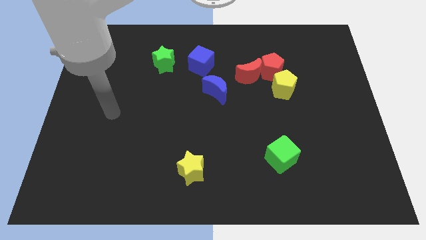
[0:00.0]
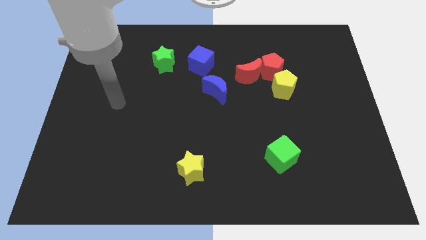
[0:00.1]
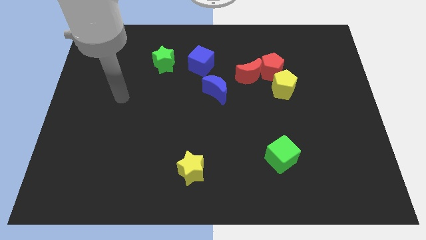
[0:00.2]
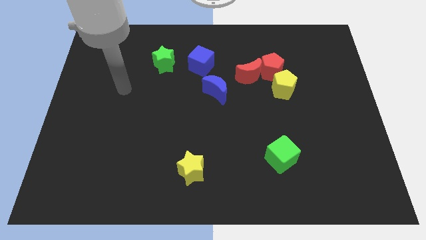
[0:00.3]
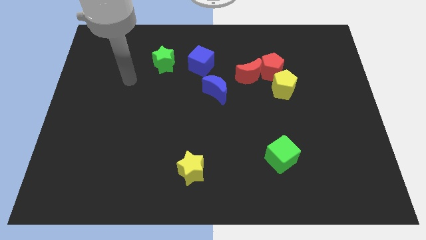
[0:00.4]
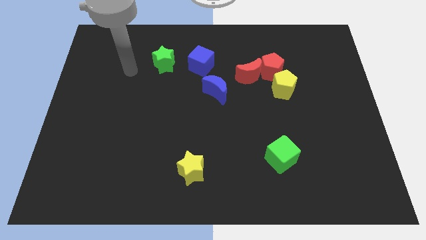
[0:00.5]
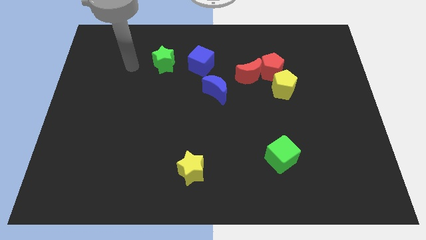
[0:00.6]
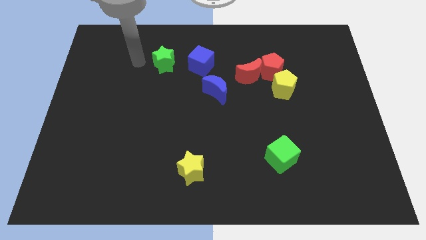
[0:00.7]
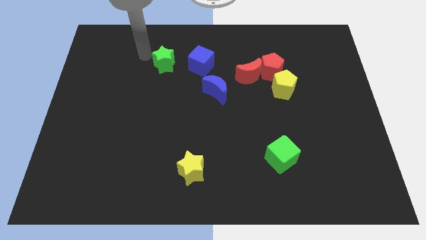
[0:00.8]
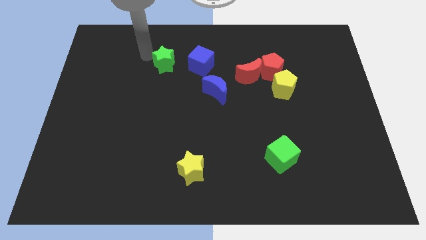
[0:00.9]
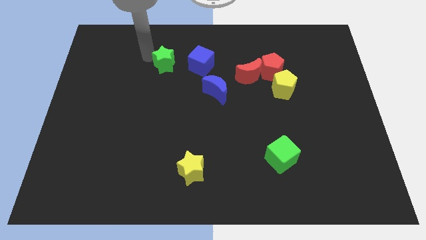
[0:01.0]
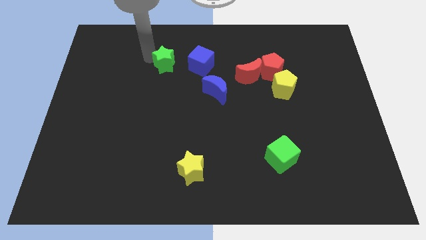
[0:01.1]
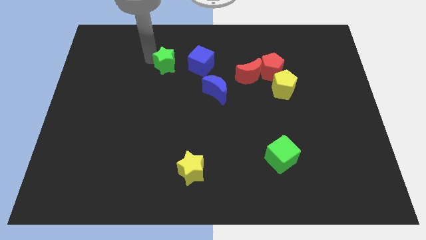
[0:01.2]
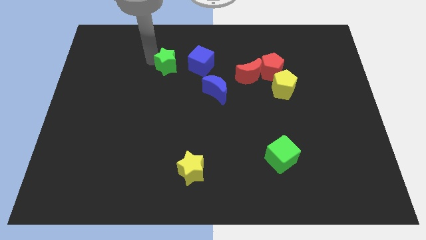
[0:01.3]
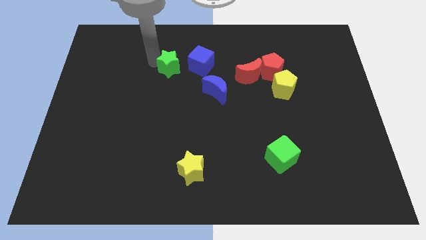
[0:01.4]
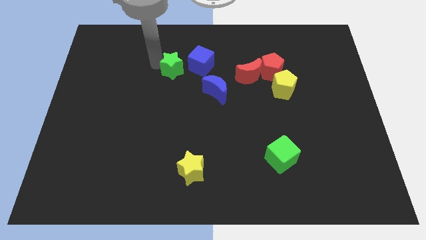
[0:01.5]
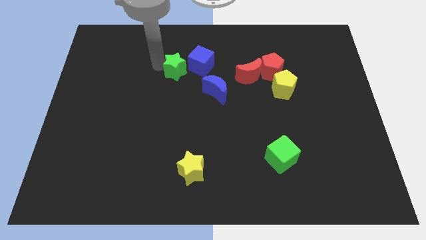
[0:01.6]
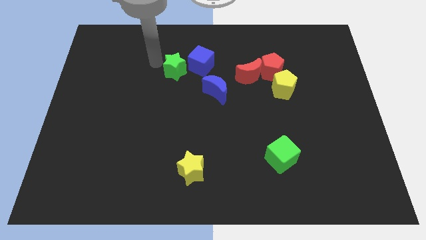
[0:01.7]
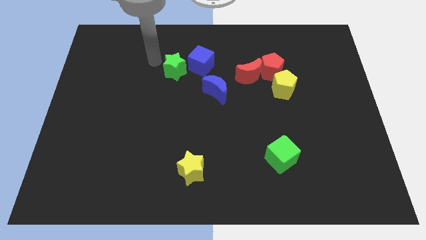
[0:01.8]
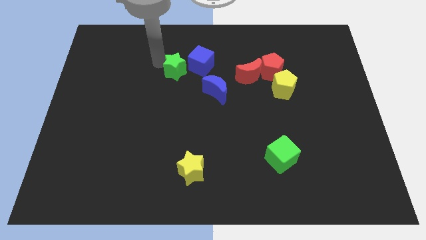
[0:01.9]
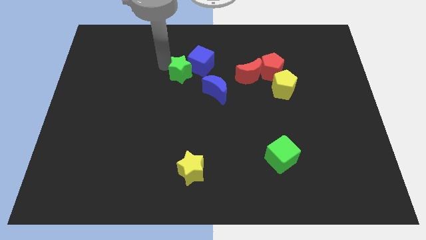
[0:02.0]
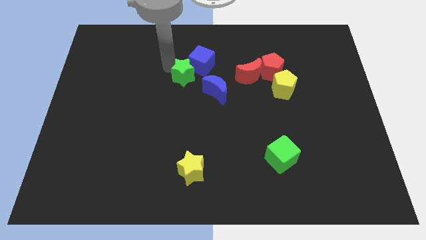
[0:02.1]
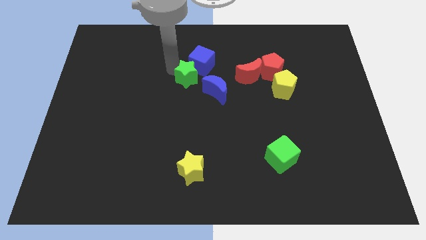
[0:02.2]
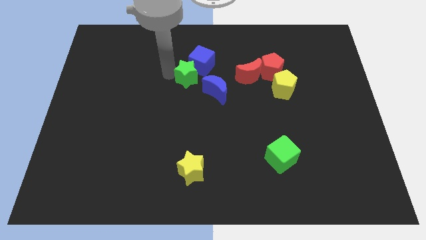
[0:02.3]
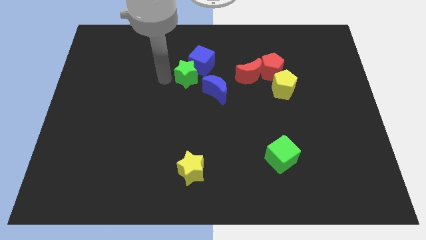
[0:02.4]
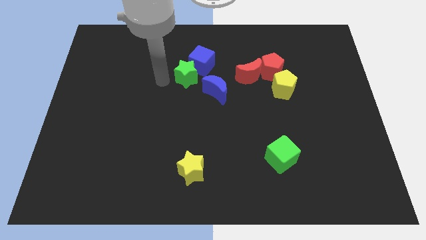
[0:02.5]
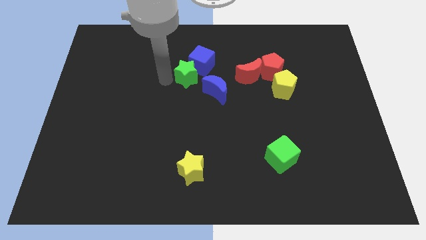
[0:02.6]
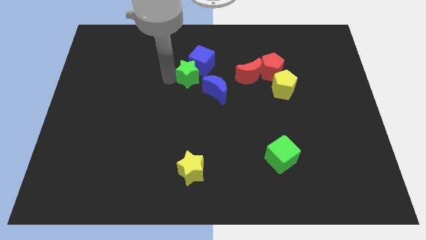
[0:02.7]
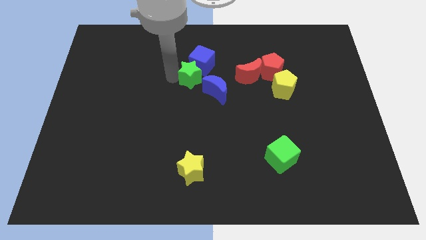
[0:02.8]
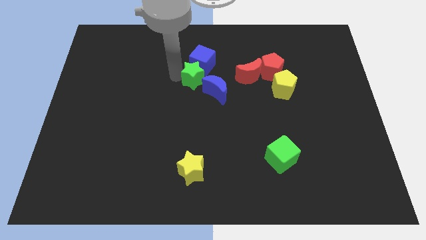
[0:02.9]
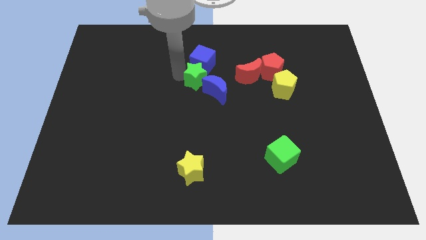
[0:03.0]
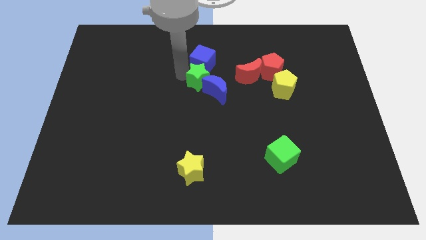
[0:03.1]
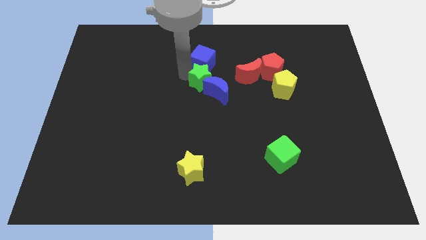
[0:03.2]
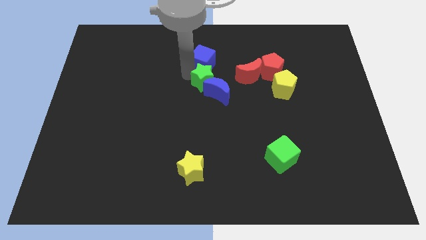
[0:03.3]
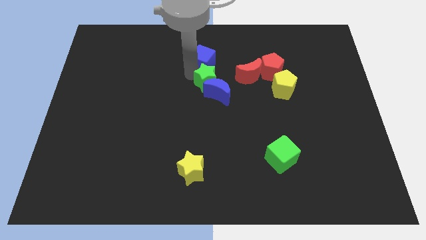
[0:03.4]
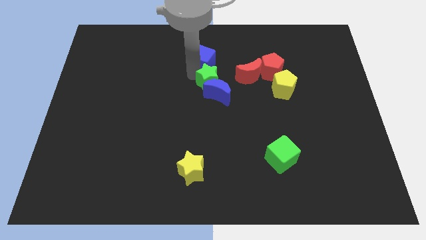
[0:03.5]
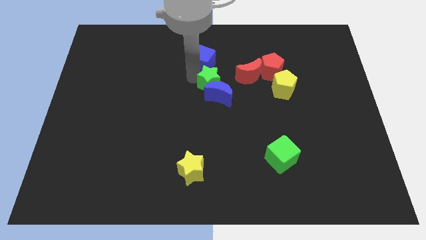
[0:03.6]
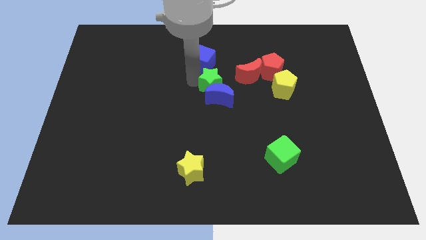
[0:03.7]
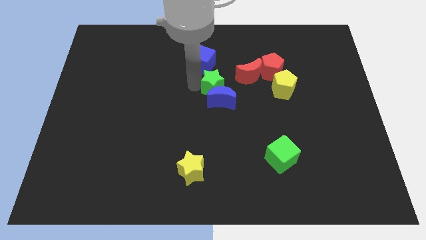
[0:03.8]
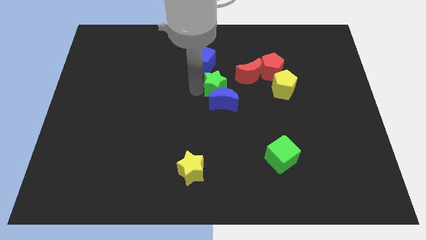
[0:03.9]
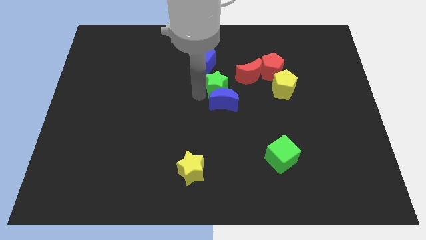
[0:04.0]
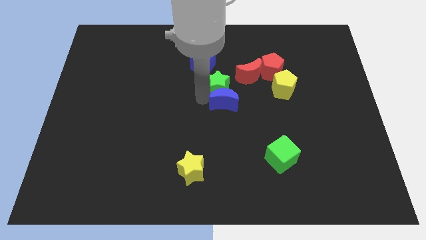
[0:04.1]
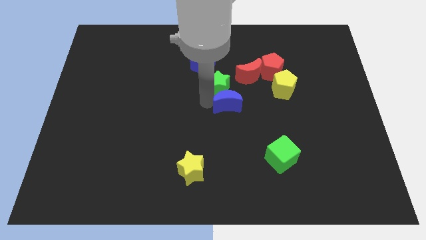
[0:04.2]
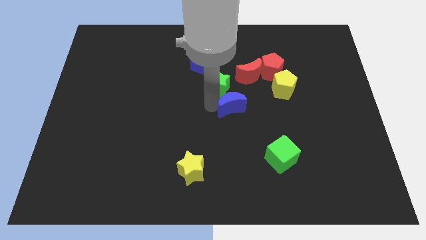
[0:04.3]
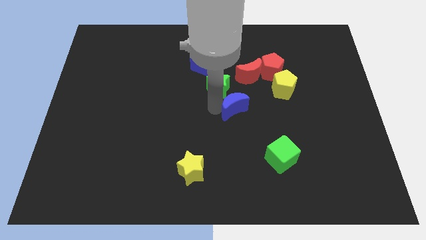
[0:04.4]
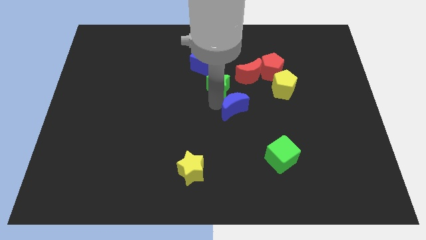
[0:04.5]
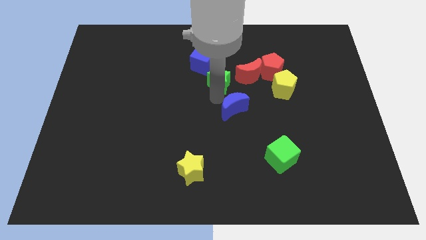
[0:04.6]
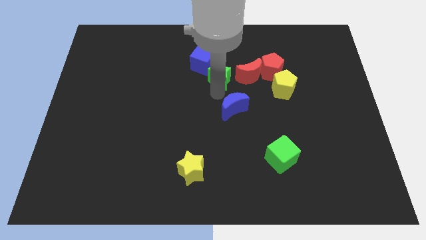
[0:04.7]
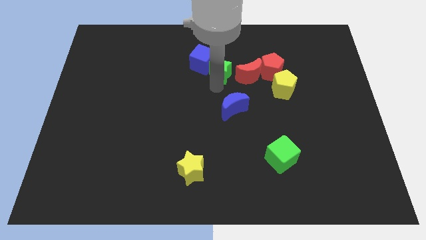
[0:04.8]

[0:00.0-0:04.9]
move the green star right of the blue cube

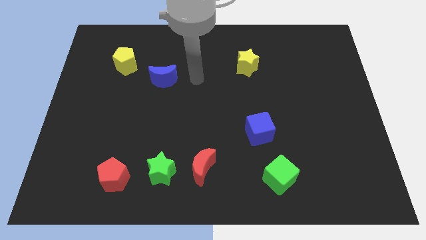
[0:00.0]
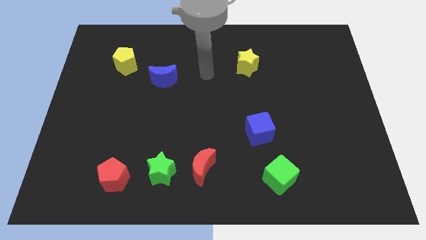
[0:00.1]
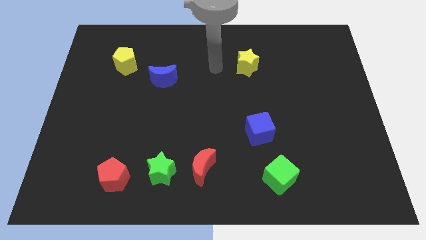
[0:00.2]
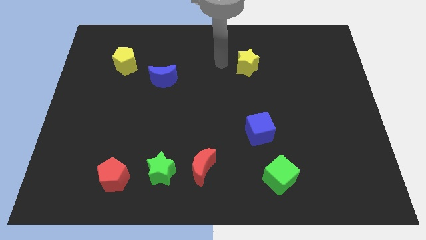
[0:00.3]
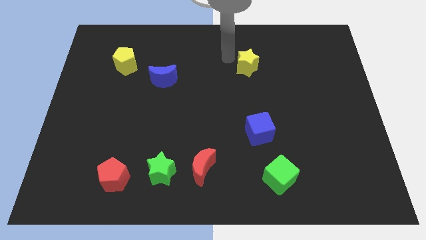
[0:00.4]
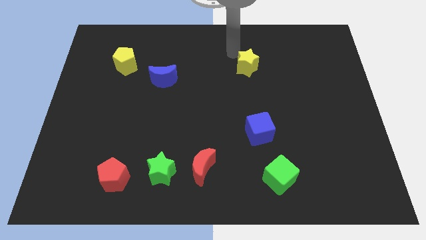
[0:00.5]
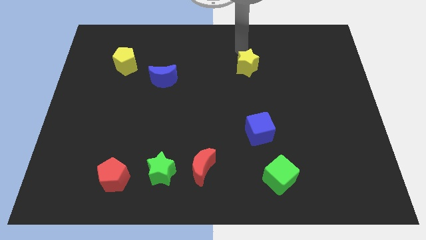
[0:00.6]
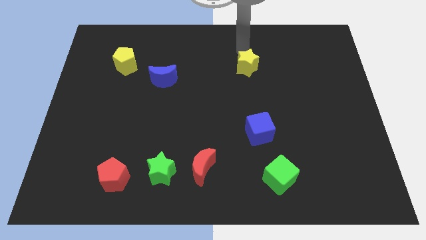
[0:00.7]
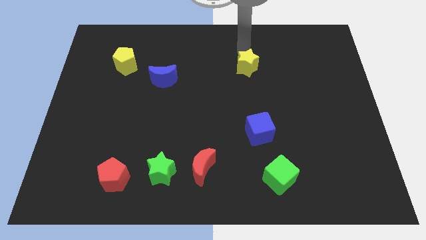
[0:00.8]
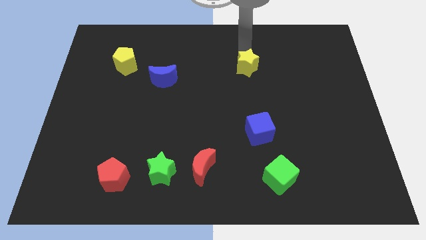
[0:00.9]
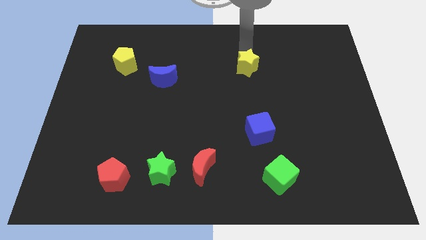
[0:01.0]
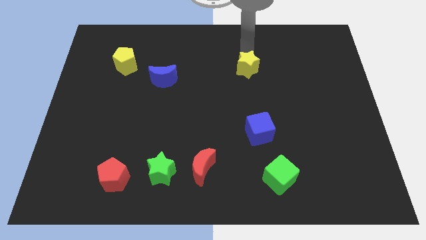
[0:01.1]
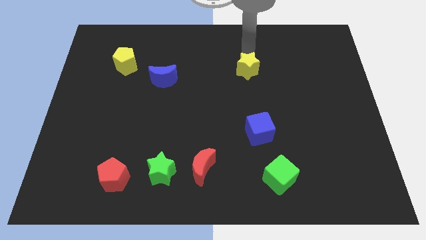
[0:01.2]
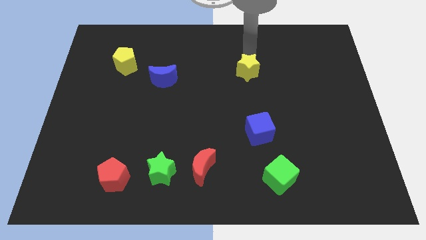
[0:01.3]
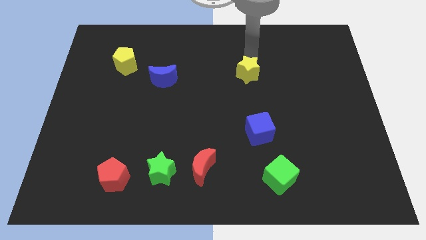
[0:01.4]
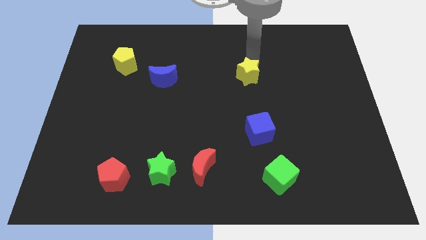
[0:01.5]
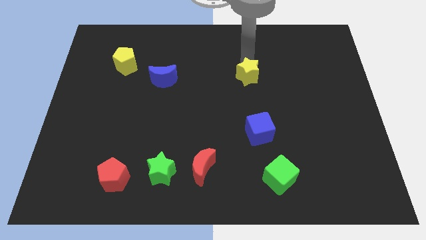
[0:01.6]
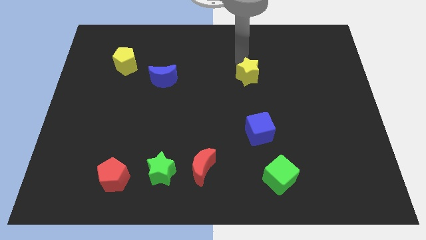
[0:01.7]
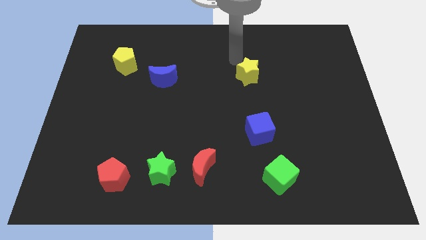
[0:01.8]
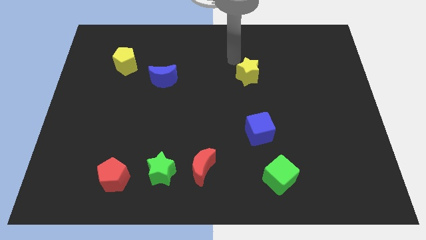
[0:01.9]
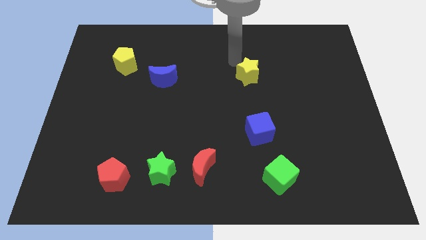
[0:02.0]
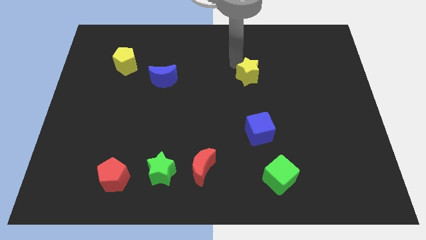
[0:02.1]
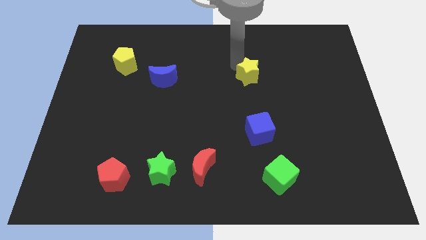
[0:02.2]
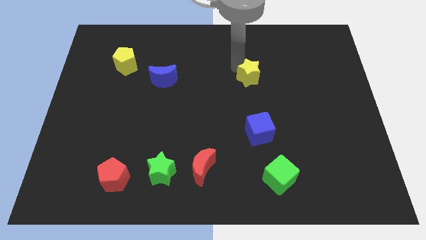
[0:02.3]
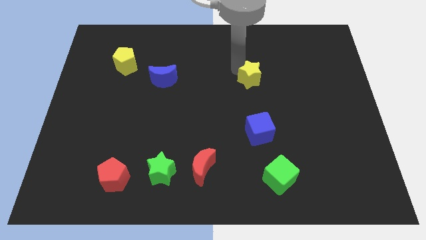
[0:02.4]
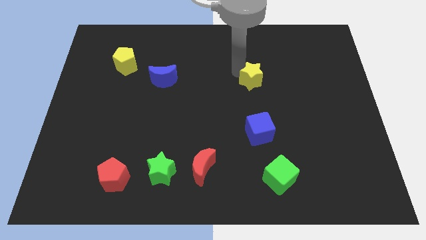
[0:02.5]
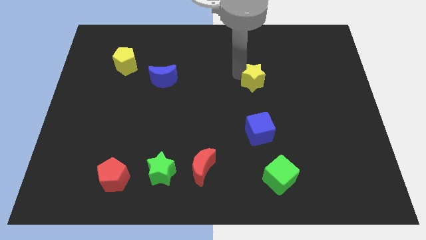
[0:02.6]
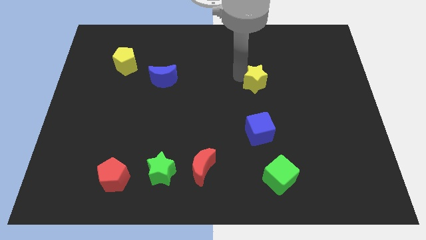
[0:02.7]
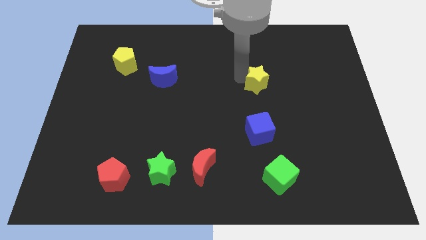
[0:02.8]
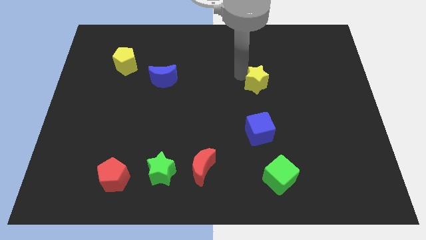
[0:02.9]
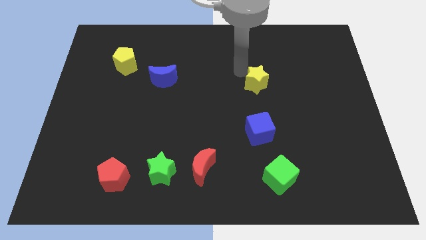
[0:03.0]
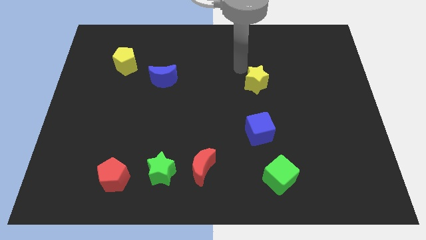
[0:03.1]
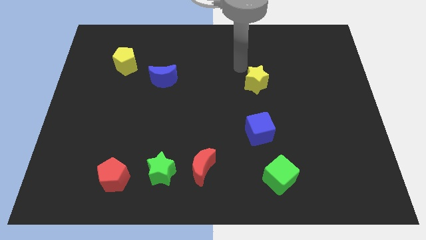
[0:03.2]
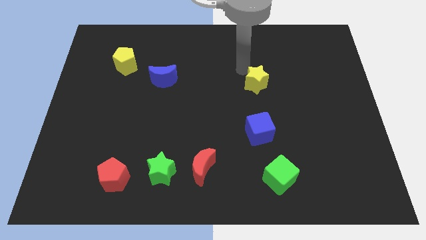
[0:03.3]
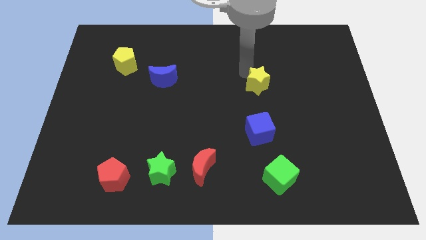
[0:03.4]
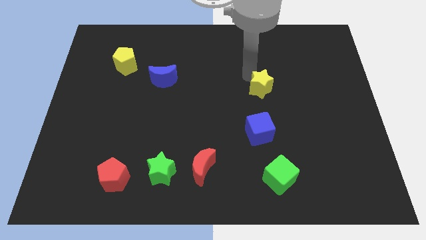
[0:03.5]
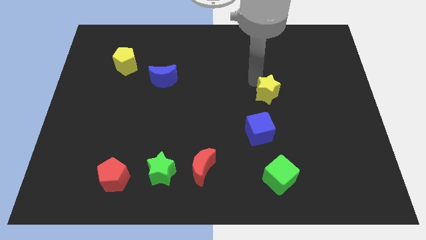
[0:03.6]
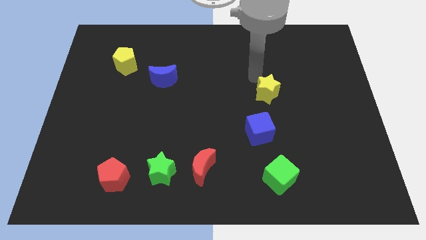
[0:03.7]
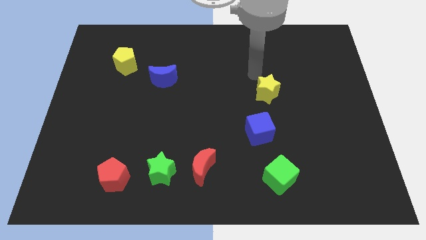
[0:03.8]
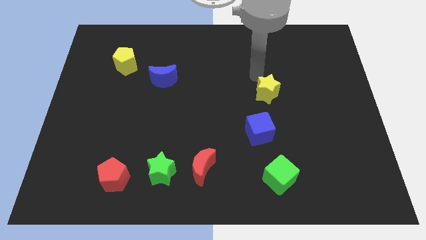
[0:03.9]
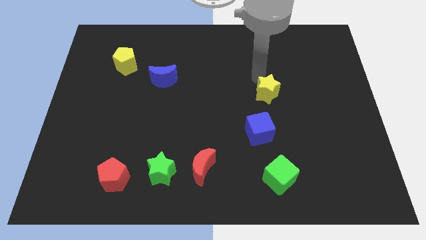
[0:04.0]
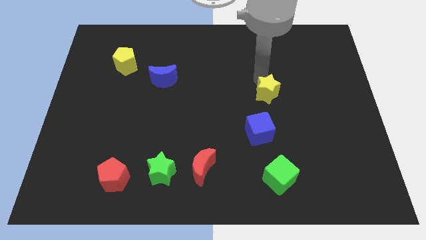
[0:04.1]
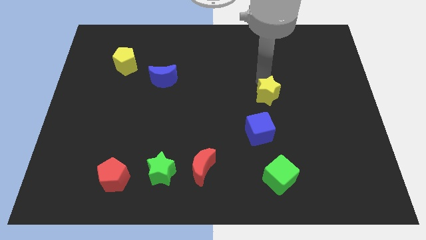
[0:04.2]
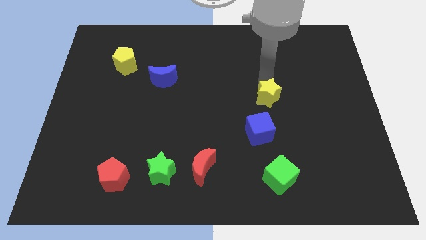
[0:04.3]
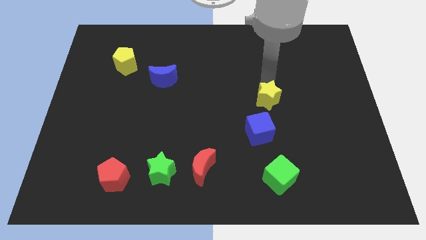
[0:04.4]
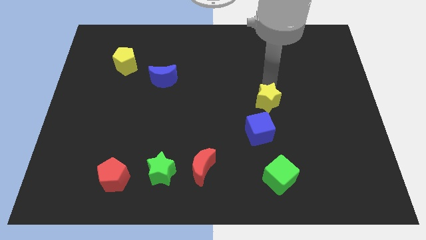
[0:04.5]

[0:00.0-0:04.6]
push the yellow star to the top right side of the blue cube
